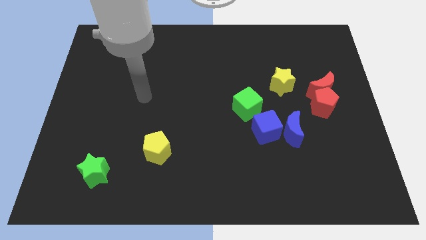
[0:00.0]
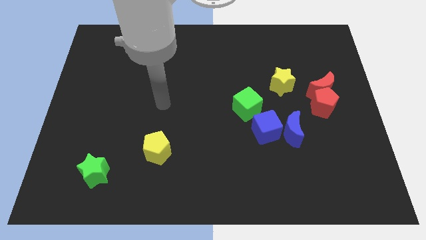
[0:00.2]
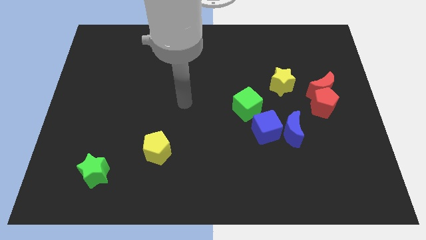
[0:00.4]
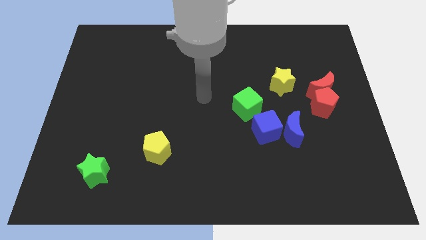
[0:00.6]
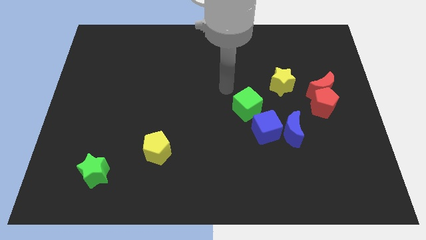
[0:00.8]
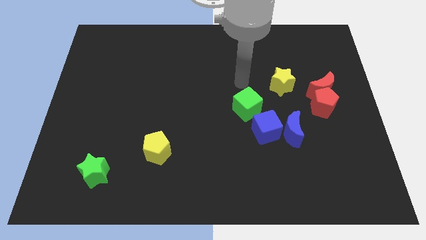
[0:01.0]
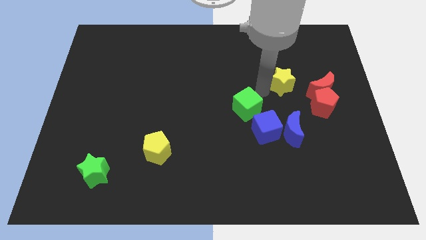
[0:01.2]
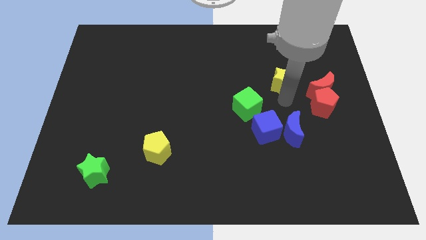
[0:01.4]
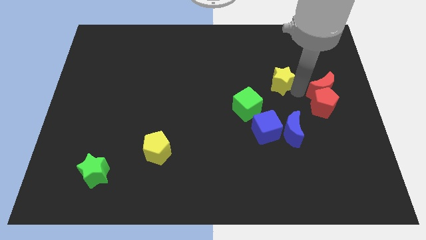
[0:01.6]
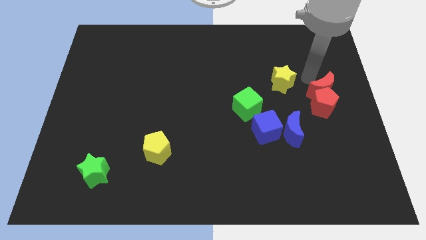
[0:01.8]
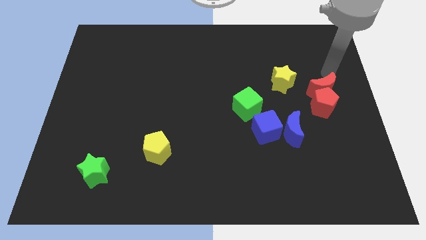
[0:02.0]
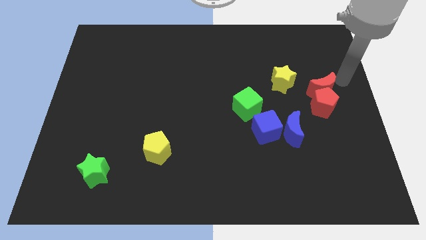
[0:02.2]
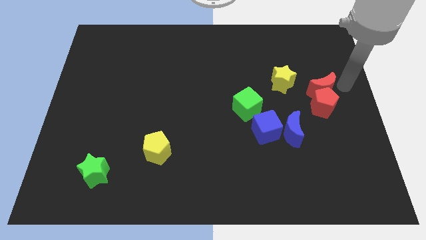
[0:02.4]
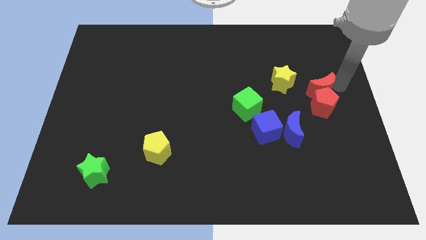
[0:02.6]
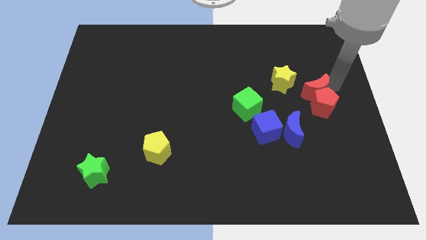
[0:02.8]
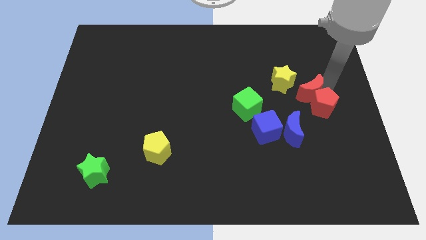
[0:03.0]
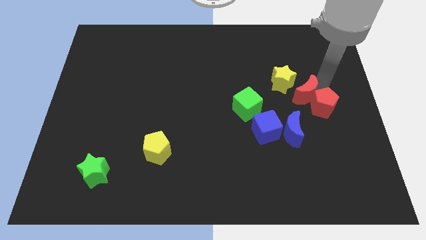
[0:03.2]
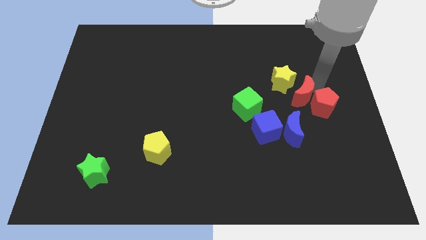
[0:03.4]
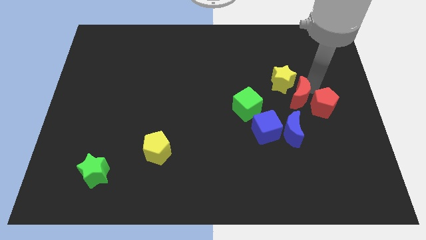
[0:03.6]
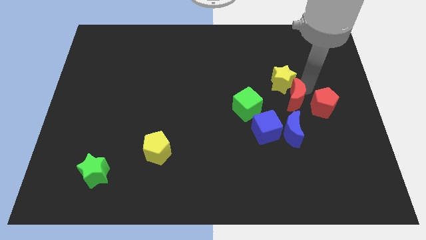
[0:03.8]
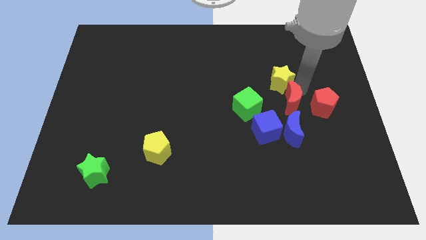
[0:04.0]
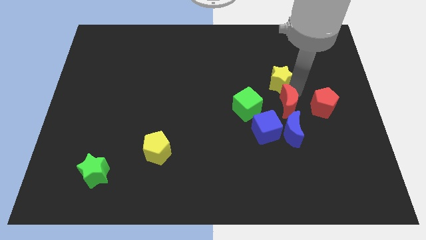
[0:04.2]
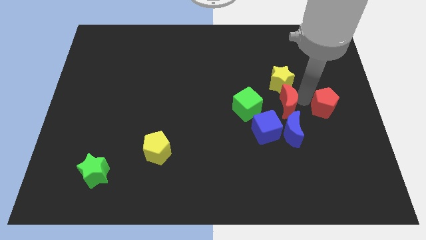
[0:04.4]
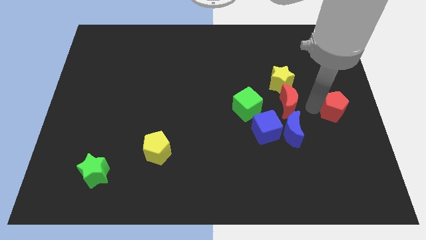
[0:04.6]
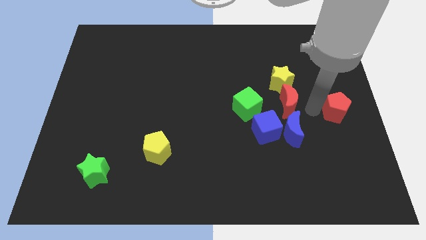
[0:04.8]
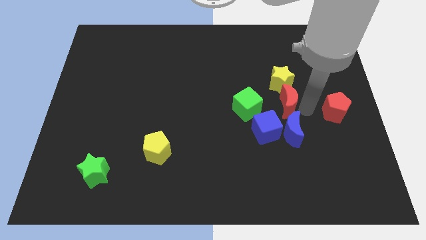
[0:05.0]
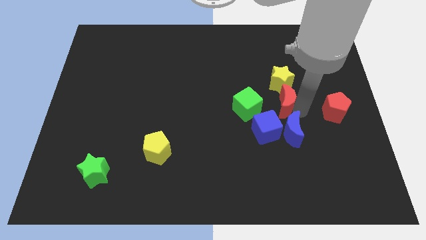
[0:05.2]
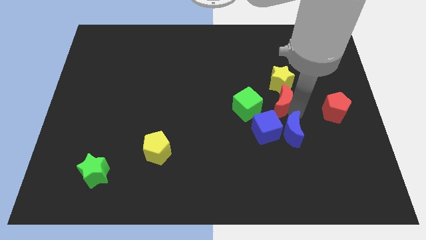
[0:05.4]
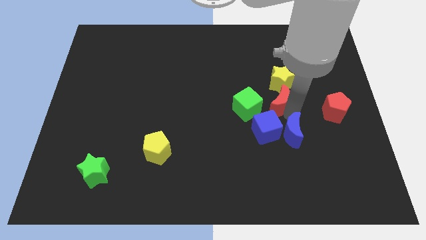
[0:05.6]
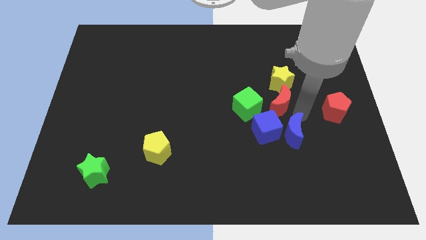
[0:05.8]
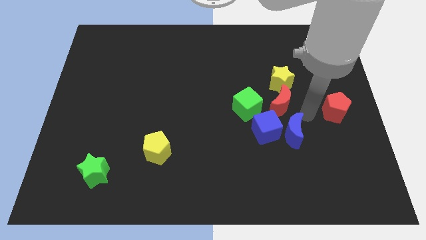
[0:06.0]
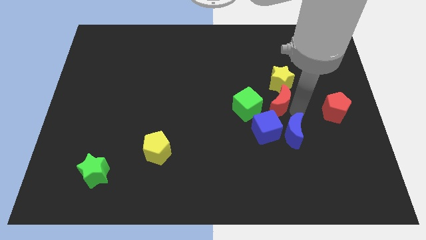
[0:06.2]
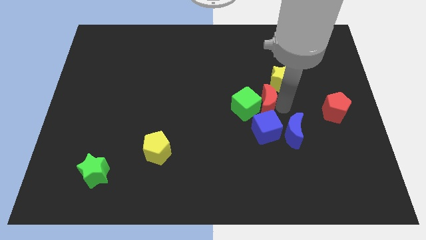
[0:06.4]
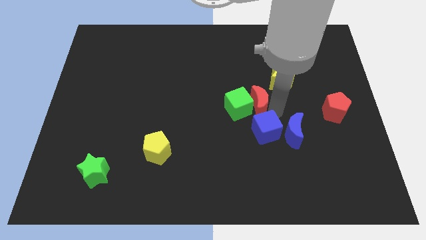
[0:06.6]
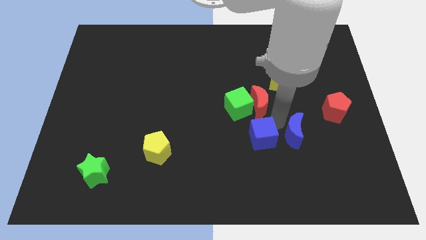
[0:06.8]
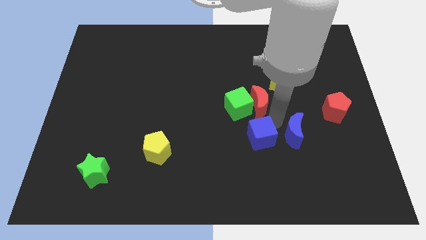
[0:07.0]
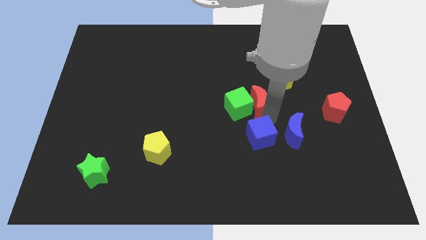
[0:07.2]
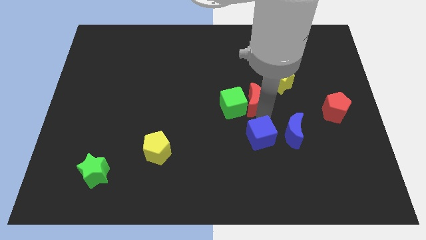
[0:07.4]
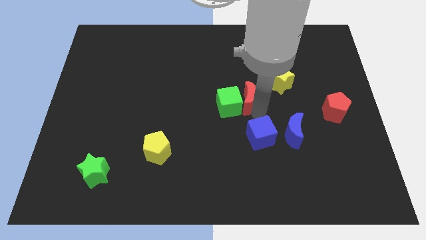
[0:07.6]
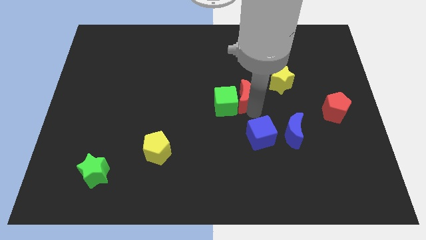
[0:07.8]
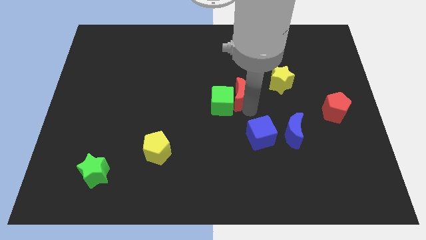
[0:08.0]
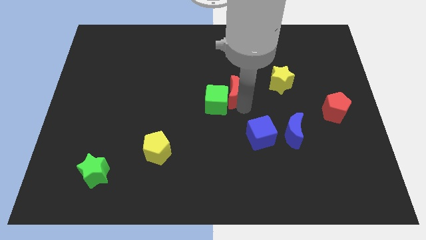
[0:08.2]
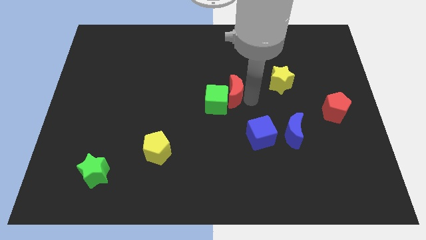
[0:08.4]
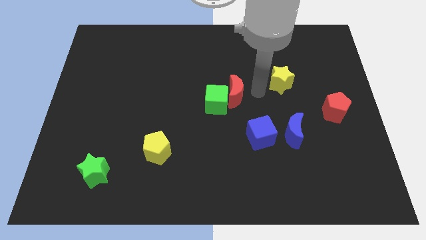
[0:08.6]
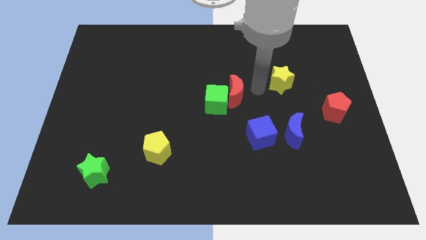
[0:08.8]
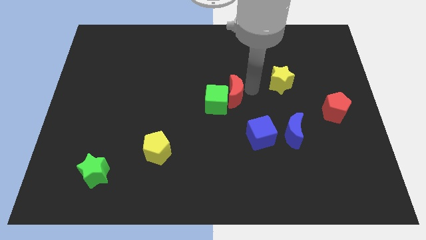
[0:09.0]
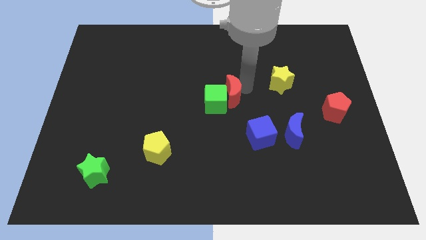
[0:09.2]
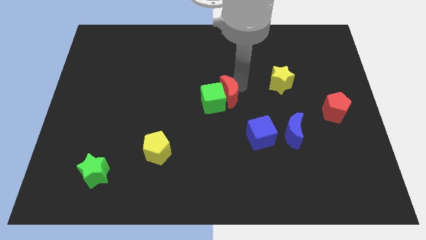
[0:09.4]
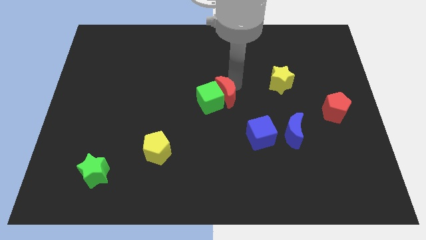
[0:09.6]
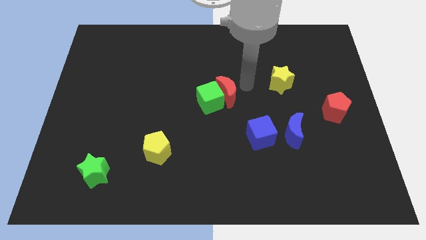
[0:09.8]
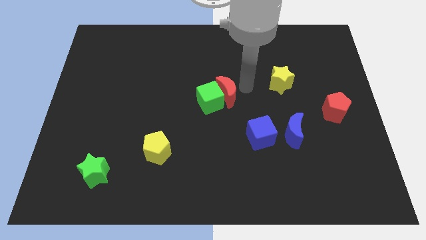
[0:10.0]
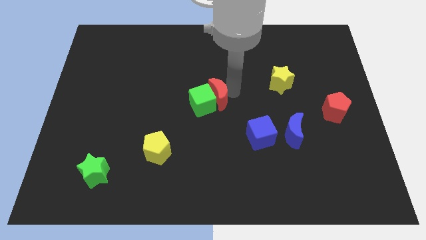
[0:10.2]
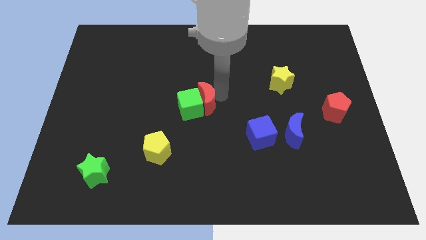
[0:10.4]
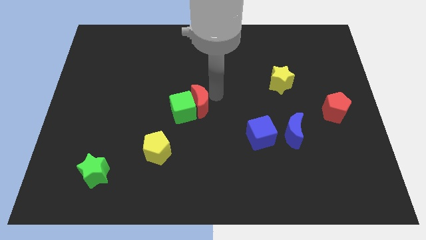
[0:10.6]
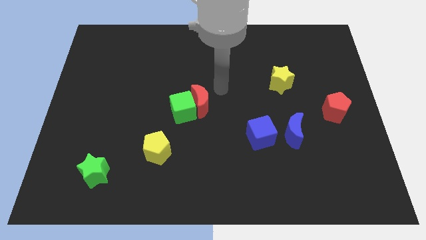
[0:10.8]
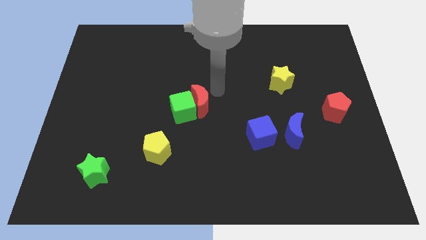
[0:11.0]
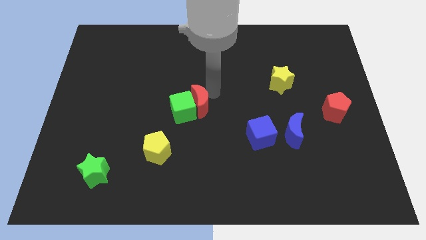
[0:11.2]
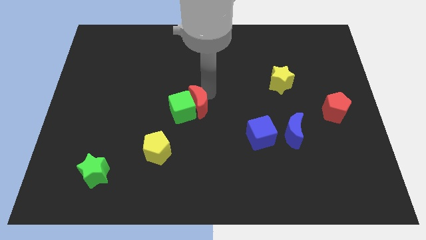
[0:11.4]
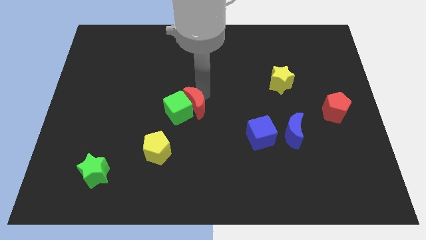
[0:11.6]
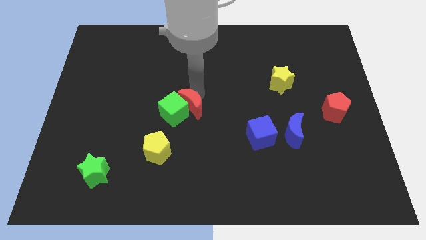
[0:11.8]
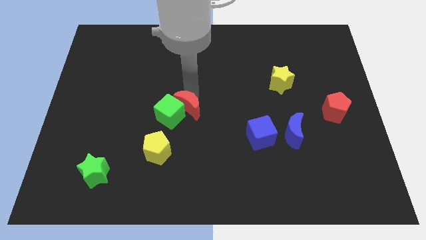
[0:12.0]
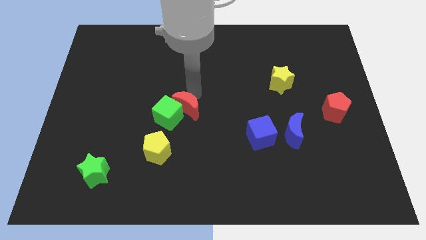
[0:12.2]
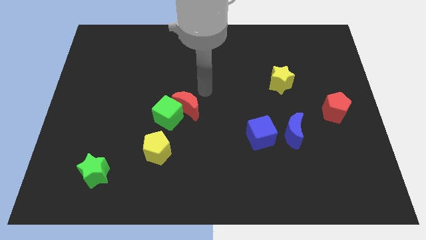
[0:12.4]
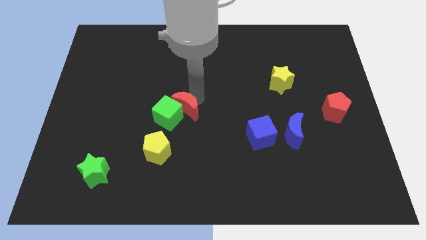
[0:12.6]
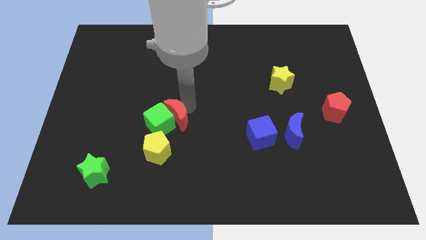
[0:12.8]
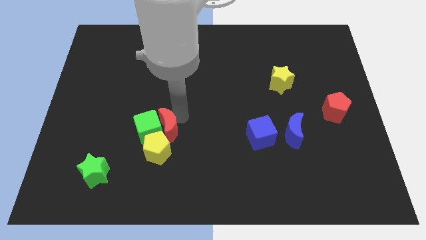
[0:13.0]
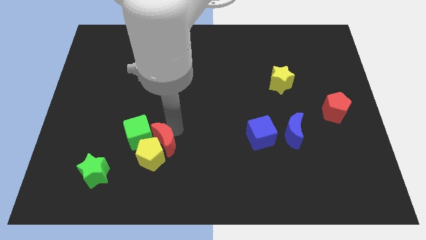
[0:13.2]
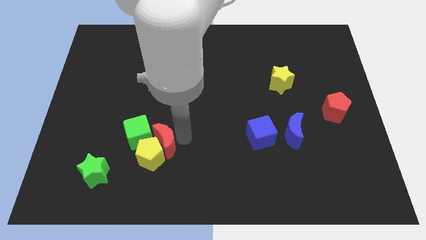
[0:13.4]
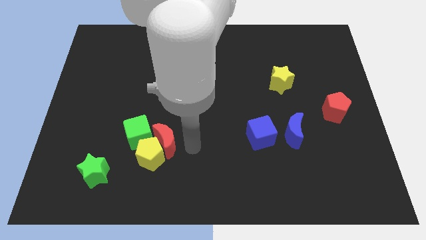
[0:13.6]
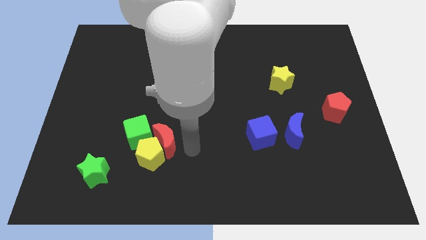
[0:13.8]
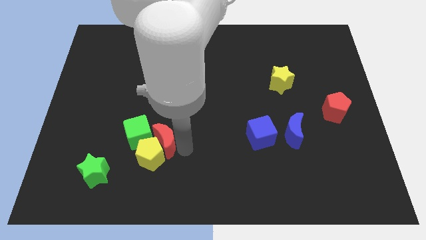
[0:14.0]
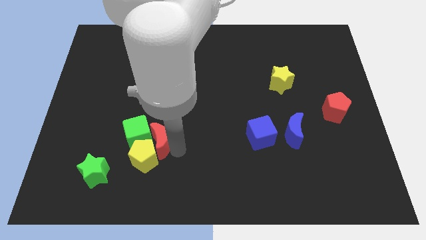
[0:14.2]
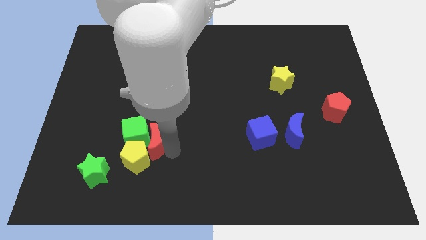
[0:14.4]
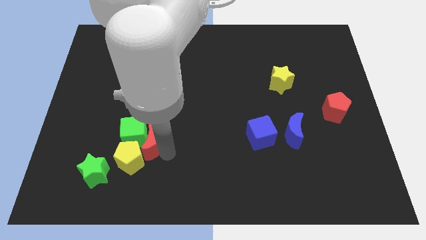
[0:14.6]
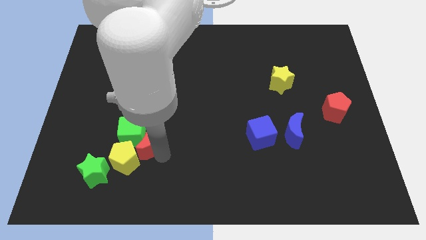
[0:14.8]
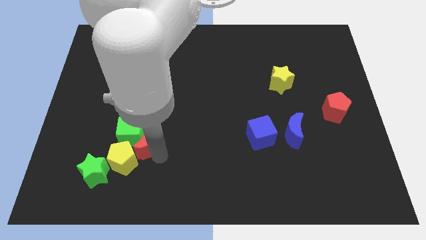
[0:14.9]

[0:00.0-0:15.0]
slide the red moon to the top right side of the green star
